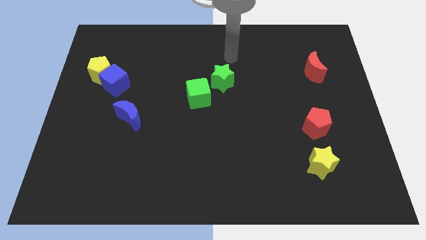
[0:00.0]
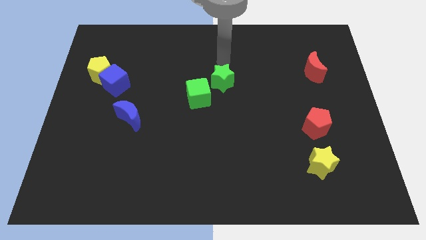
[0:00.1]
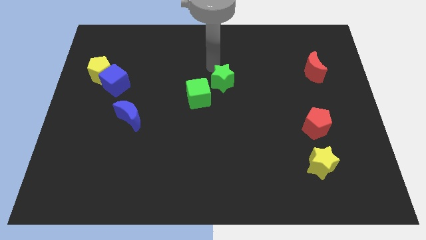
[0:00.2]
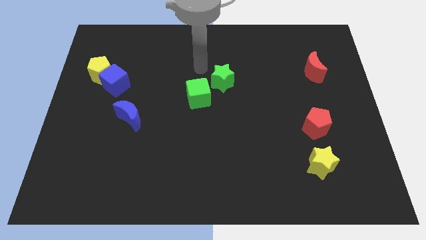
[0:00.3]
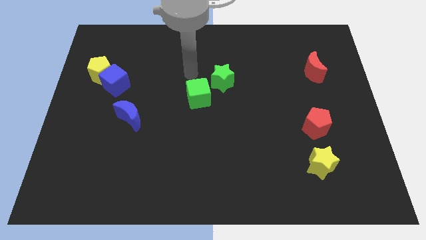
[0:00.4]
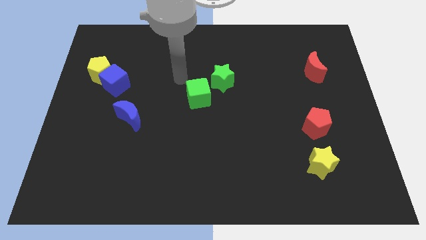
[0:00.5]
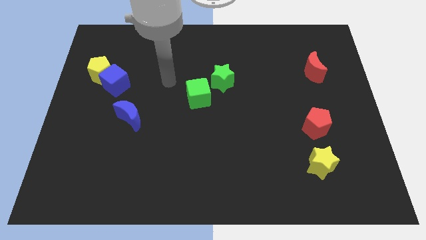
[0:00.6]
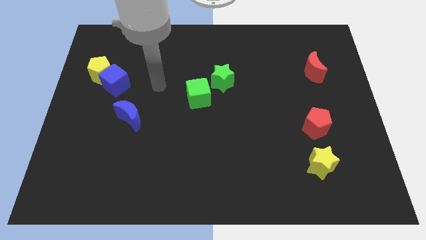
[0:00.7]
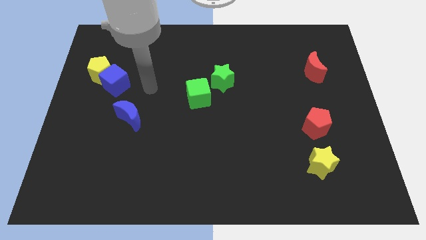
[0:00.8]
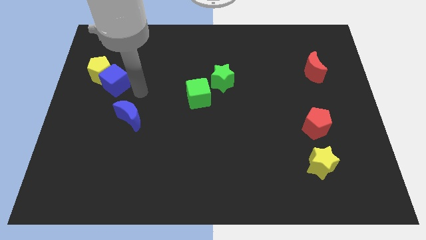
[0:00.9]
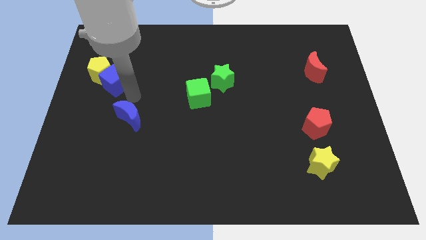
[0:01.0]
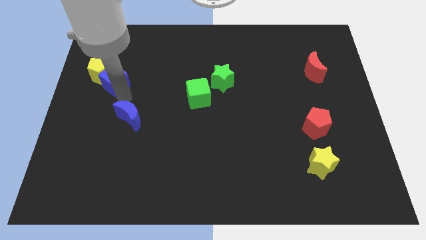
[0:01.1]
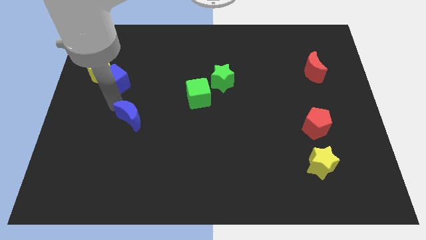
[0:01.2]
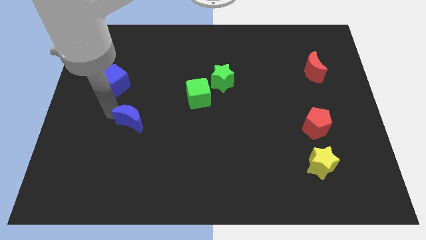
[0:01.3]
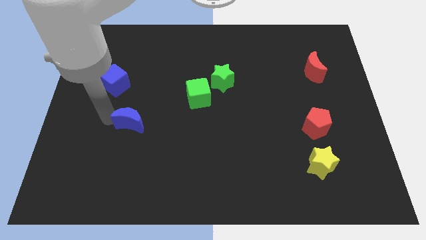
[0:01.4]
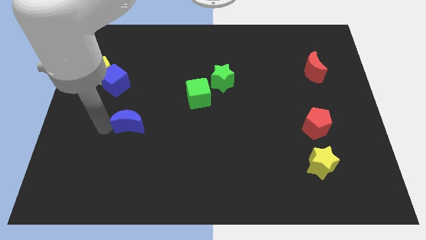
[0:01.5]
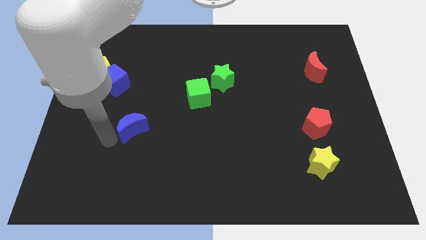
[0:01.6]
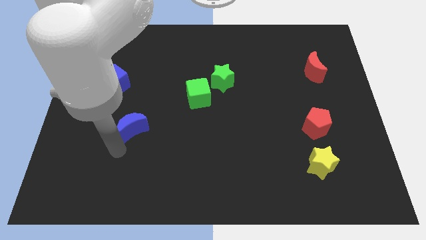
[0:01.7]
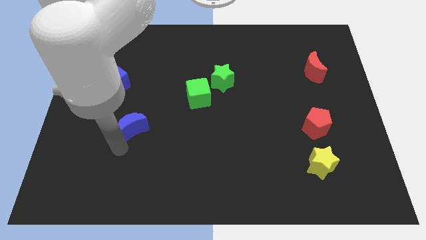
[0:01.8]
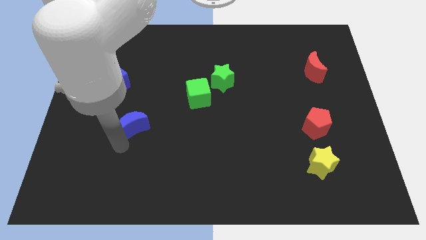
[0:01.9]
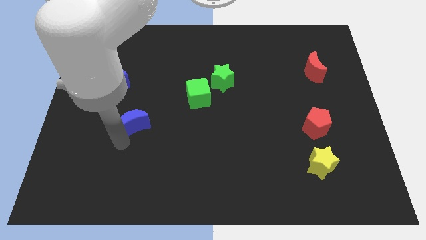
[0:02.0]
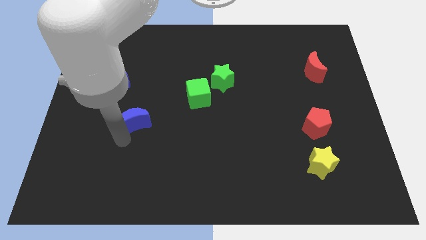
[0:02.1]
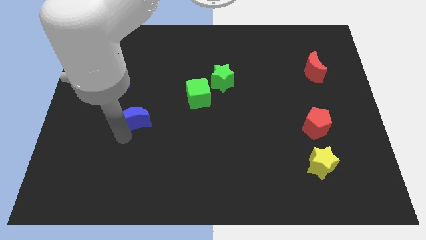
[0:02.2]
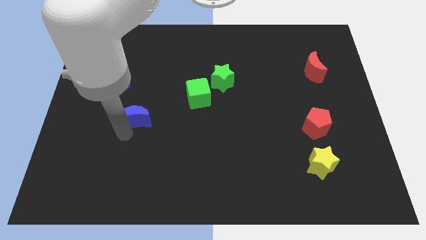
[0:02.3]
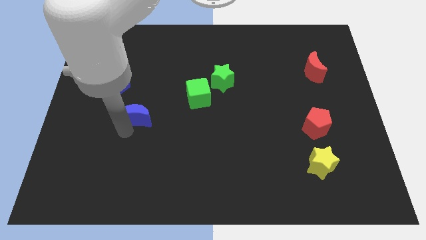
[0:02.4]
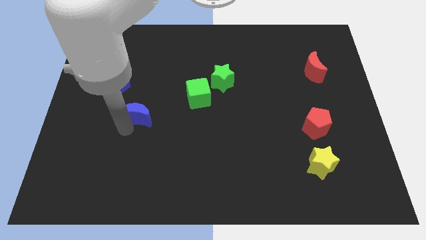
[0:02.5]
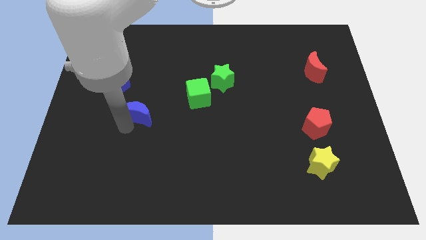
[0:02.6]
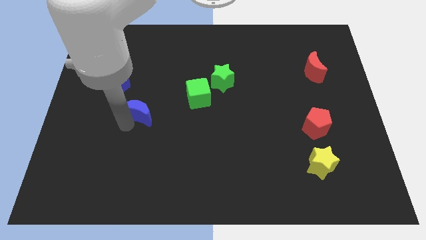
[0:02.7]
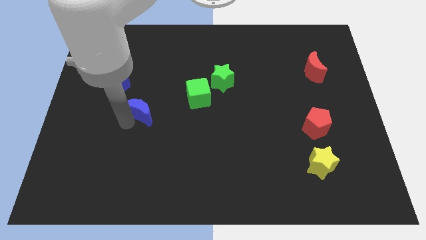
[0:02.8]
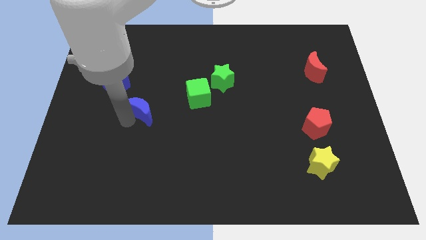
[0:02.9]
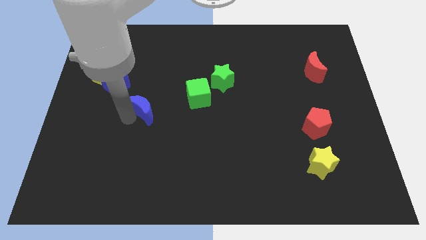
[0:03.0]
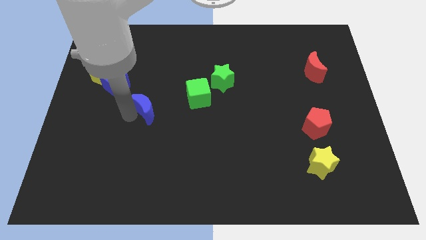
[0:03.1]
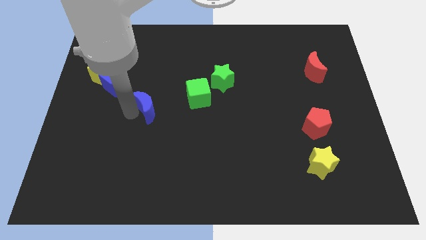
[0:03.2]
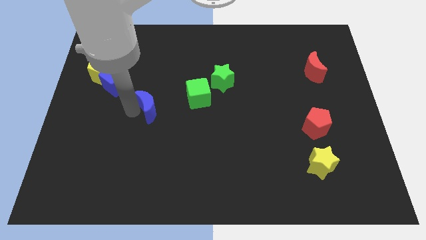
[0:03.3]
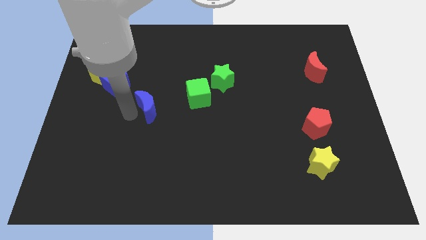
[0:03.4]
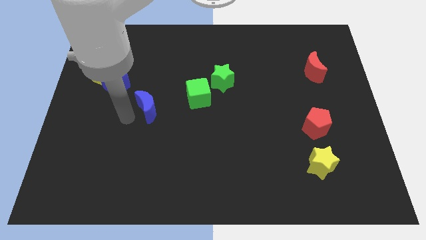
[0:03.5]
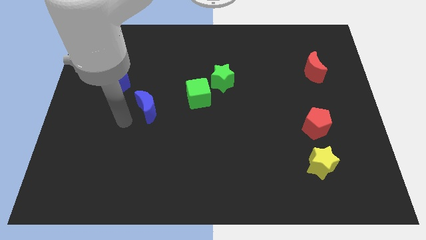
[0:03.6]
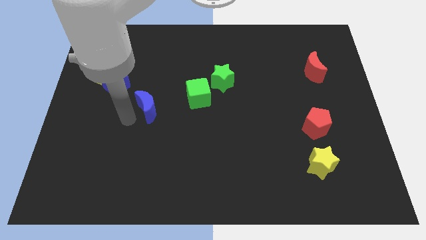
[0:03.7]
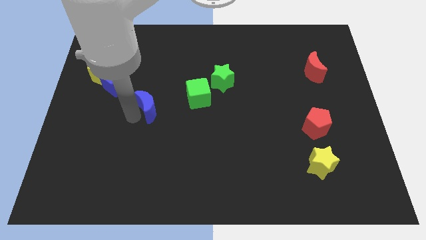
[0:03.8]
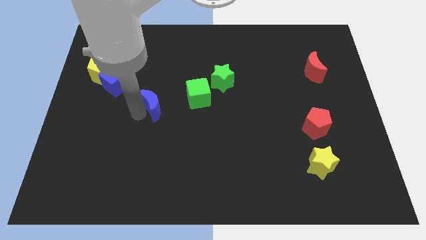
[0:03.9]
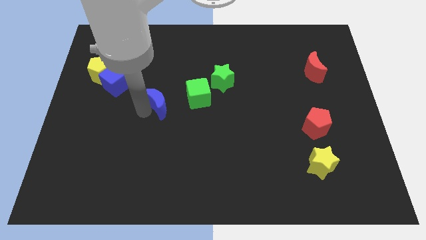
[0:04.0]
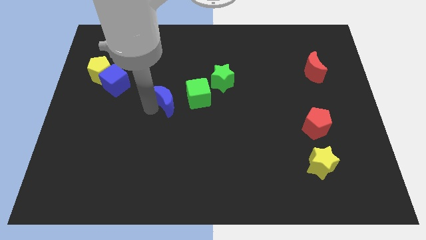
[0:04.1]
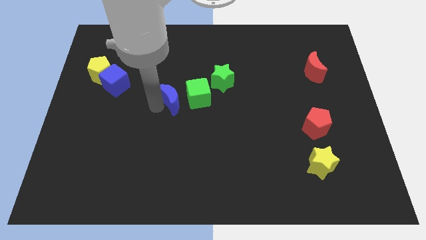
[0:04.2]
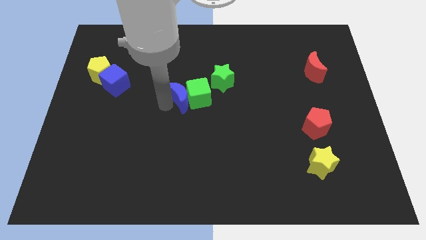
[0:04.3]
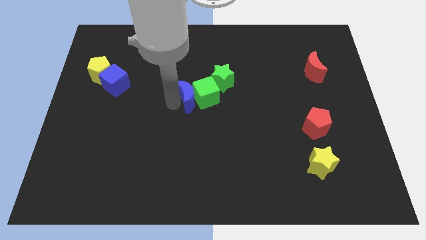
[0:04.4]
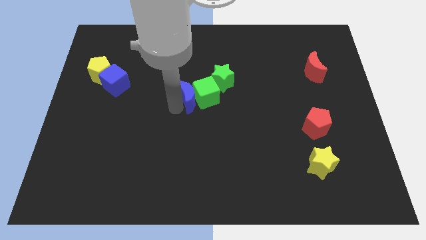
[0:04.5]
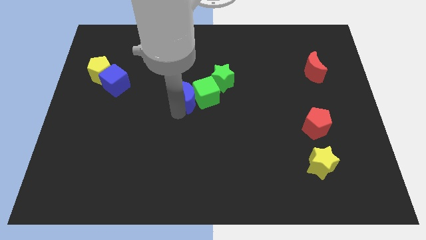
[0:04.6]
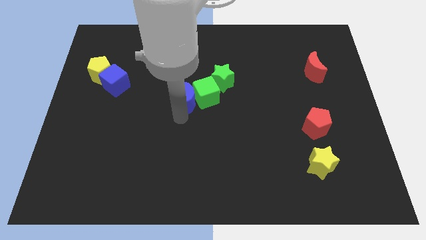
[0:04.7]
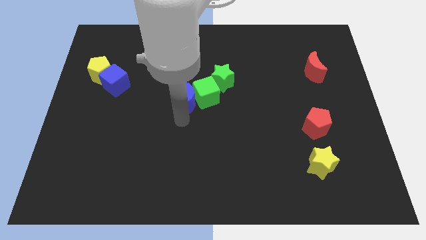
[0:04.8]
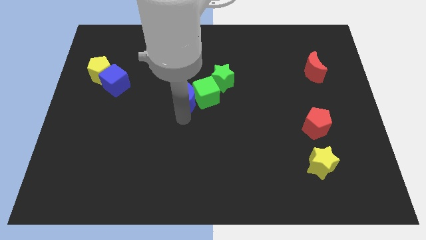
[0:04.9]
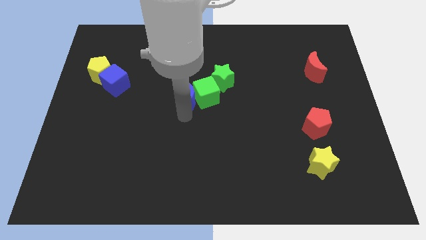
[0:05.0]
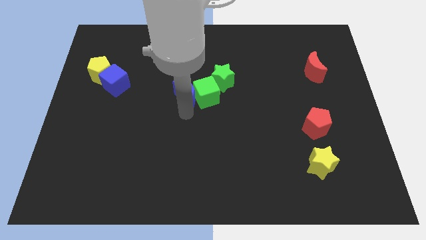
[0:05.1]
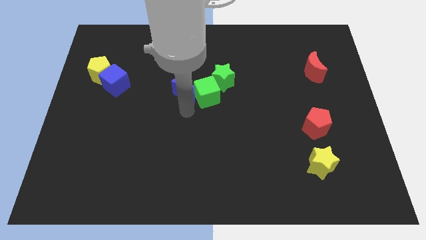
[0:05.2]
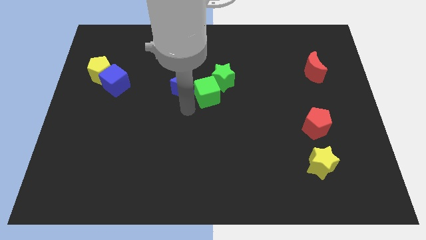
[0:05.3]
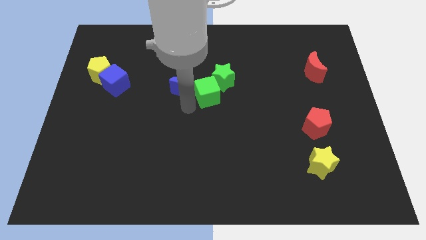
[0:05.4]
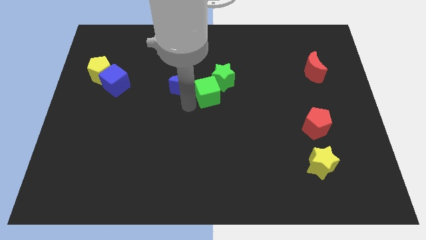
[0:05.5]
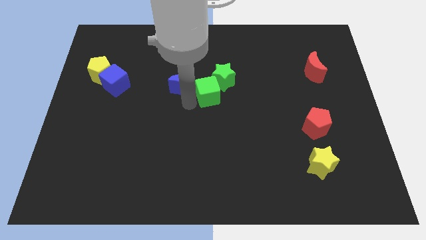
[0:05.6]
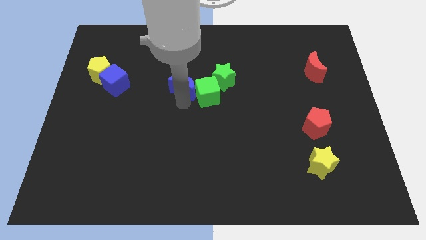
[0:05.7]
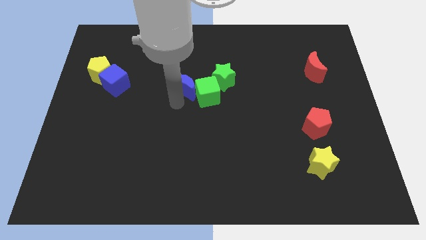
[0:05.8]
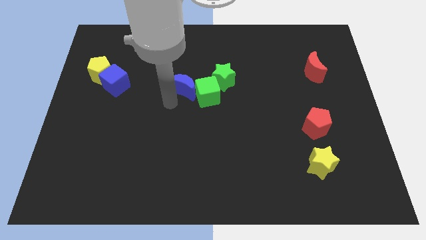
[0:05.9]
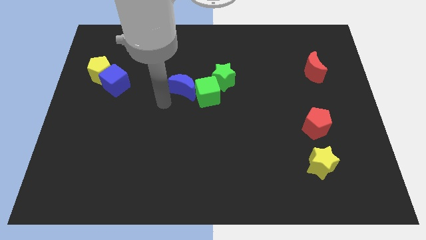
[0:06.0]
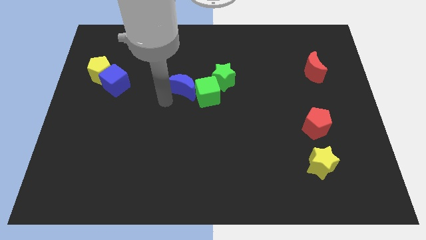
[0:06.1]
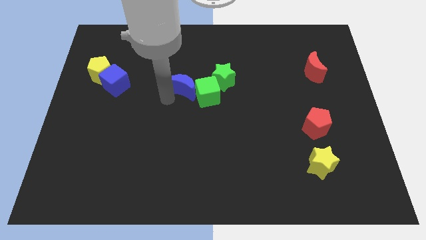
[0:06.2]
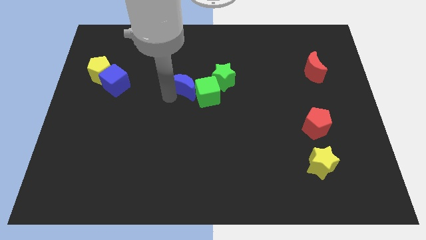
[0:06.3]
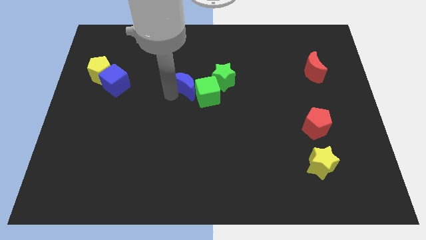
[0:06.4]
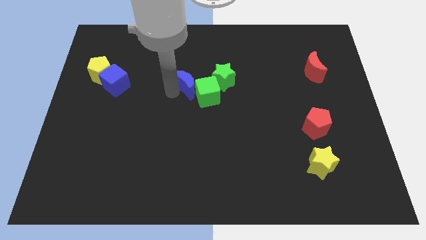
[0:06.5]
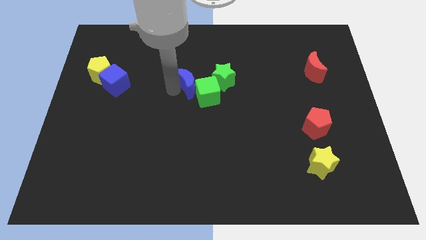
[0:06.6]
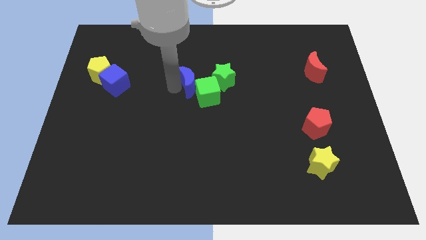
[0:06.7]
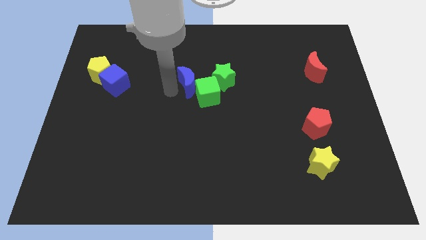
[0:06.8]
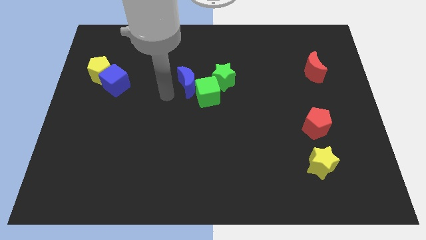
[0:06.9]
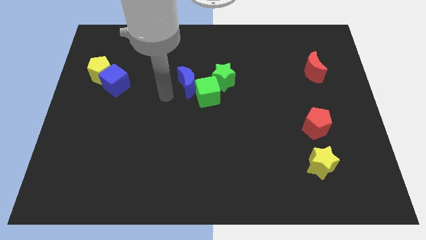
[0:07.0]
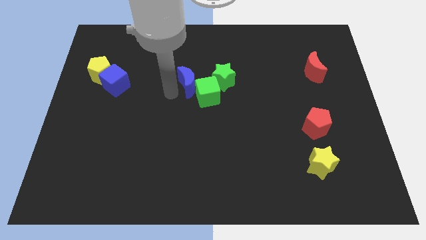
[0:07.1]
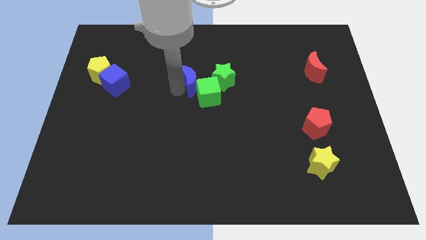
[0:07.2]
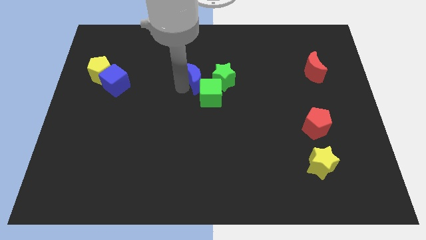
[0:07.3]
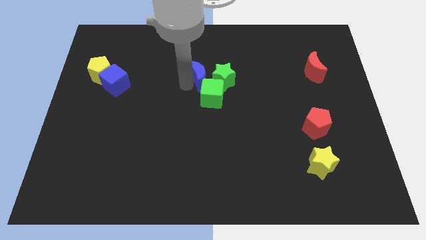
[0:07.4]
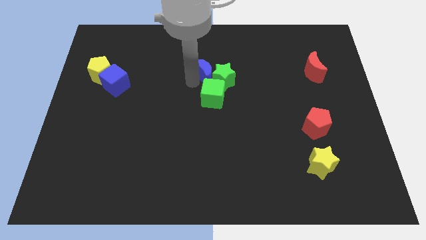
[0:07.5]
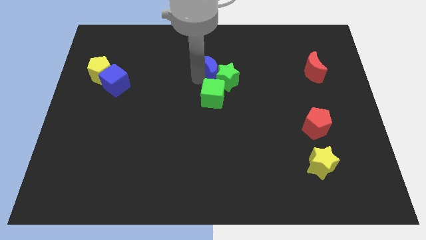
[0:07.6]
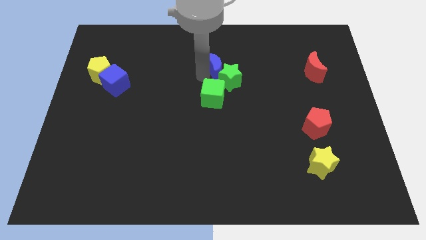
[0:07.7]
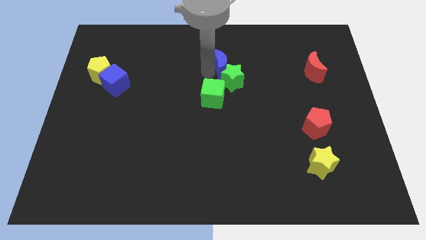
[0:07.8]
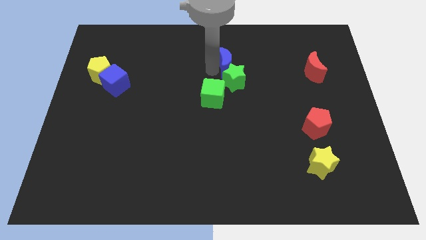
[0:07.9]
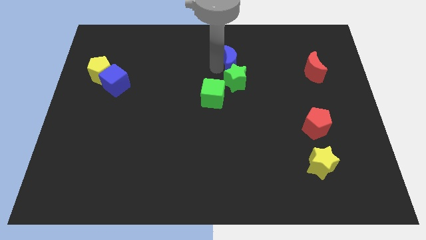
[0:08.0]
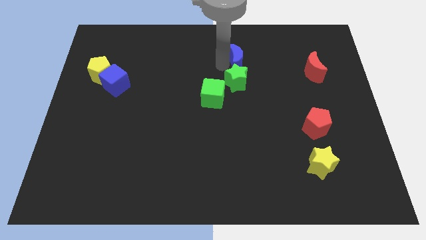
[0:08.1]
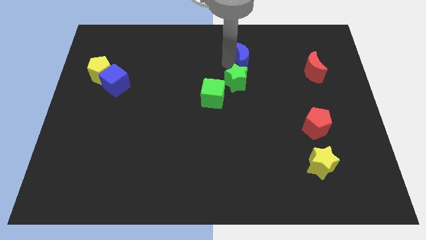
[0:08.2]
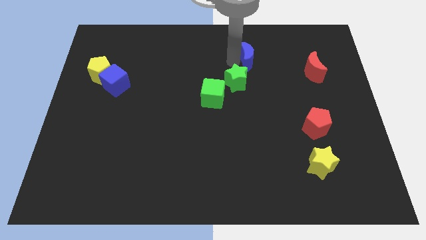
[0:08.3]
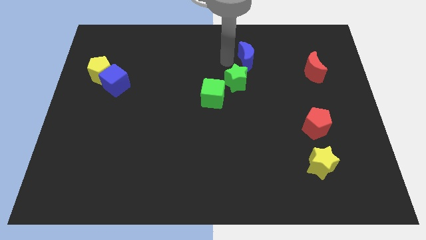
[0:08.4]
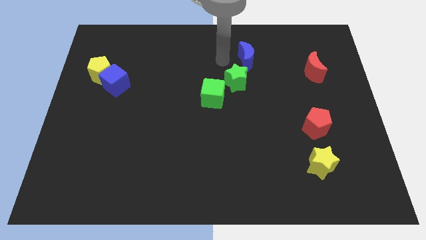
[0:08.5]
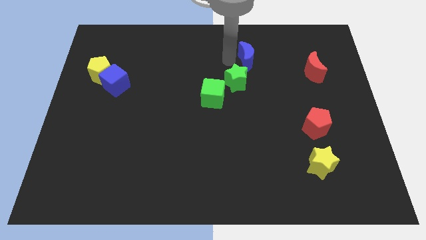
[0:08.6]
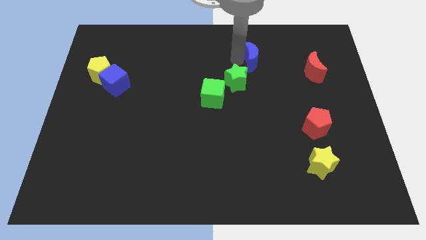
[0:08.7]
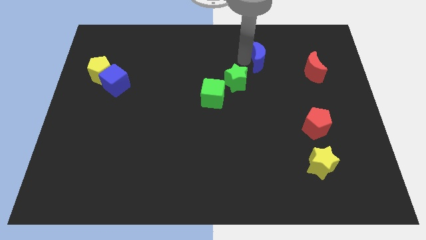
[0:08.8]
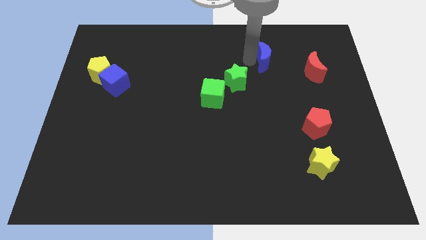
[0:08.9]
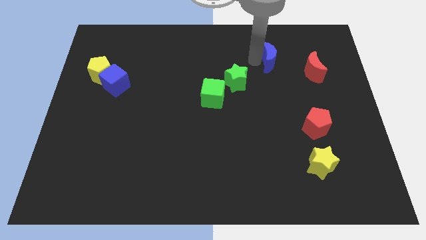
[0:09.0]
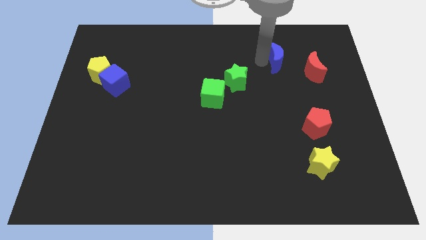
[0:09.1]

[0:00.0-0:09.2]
put the blue moon to the top left side of the red moon
